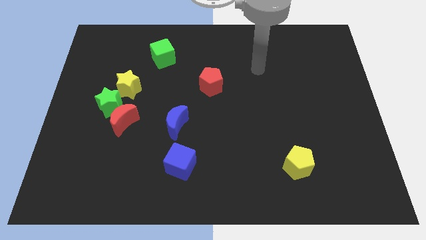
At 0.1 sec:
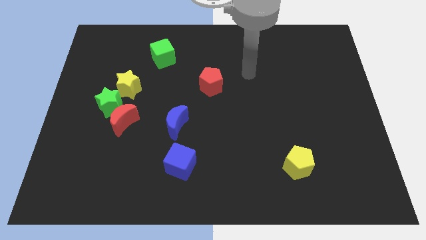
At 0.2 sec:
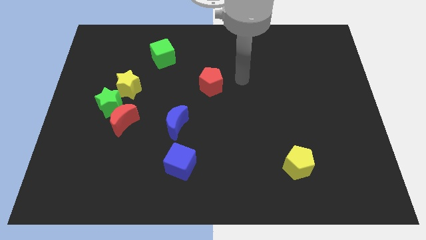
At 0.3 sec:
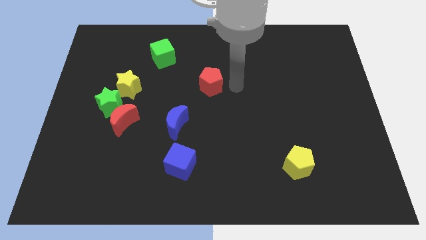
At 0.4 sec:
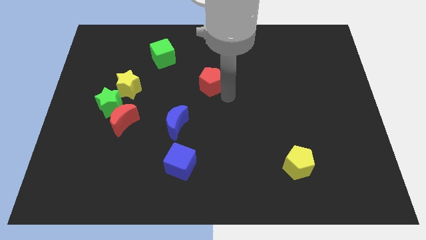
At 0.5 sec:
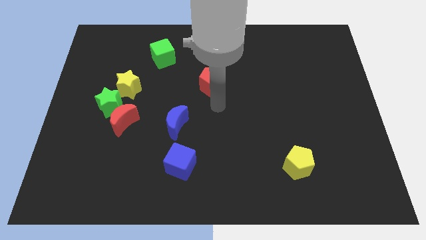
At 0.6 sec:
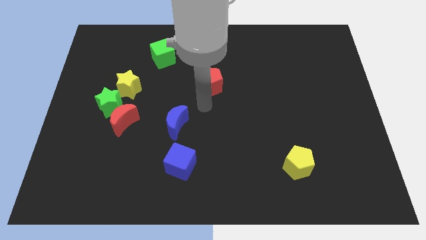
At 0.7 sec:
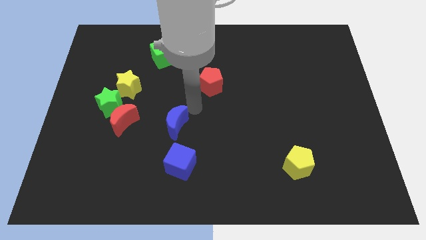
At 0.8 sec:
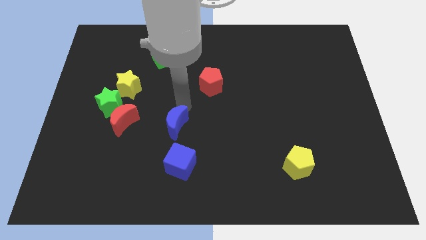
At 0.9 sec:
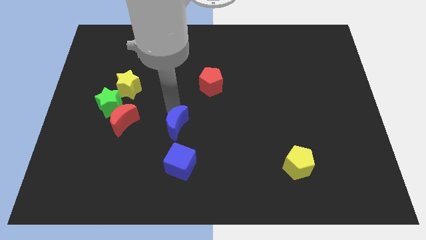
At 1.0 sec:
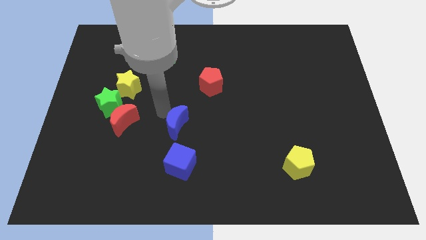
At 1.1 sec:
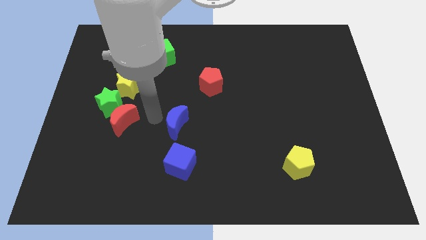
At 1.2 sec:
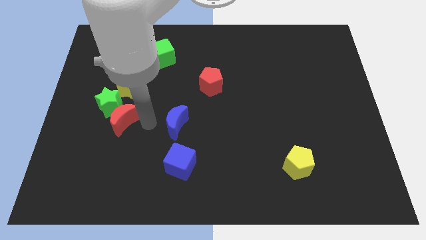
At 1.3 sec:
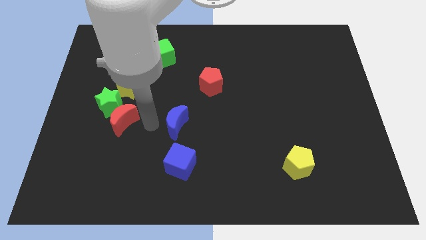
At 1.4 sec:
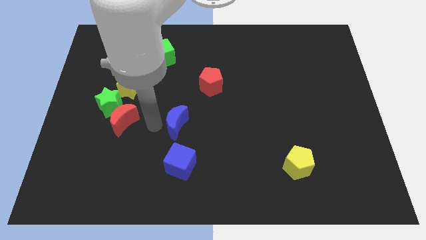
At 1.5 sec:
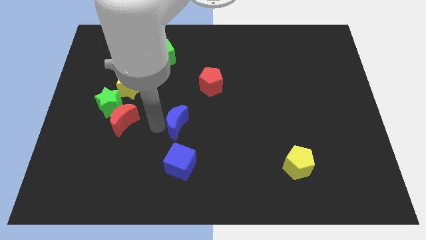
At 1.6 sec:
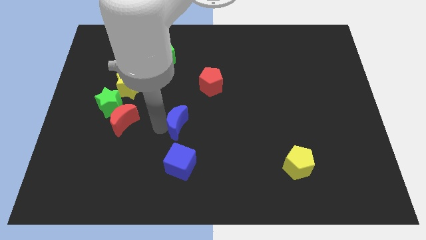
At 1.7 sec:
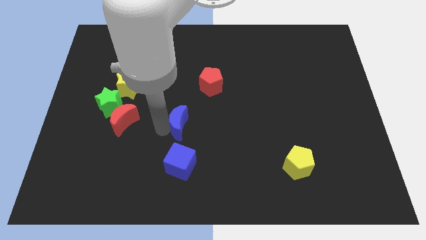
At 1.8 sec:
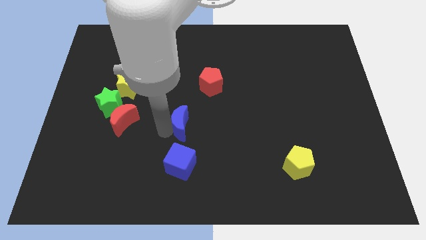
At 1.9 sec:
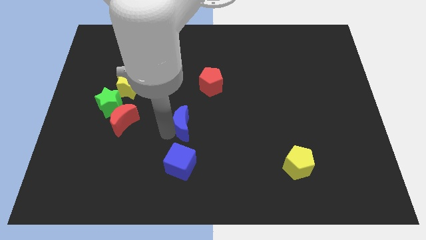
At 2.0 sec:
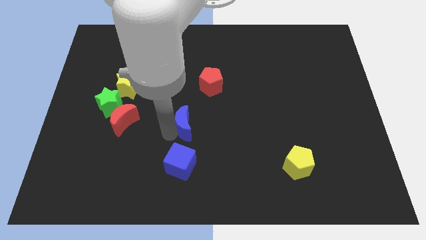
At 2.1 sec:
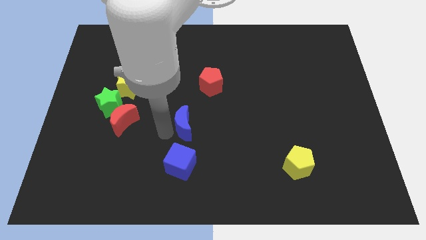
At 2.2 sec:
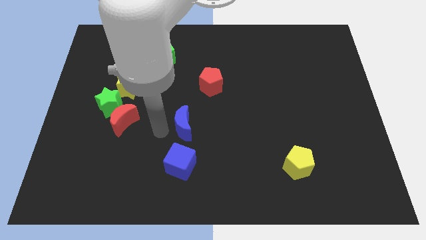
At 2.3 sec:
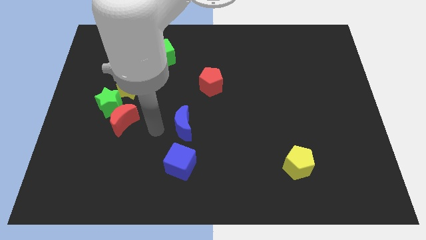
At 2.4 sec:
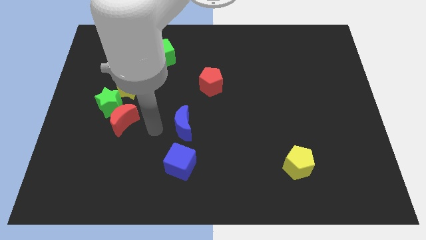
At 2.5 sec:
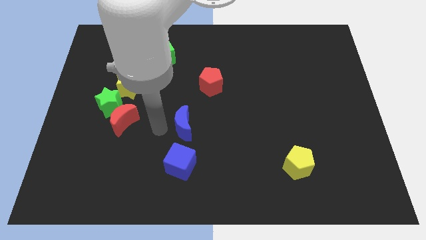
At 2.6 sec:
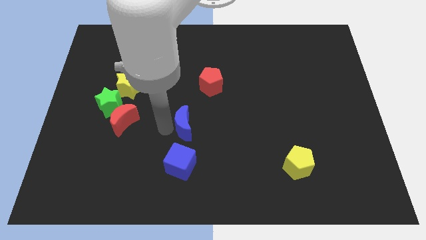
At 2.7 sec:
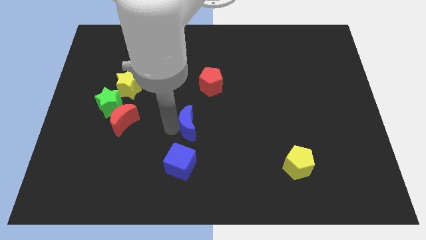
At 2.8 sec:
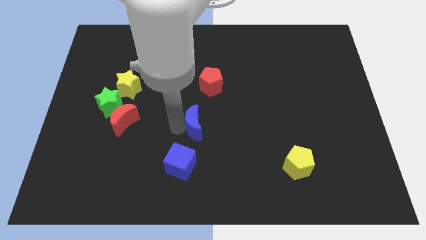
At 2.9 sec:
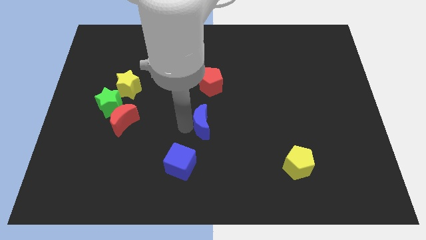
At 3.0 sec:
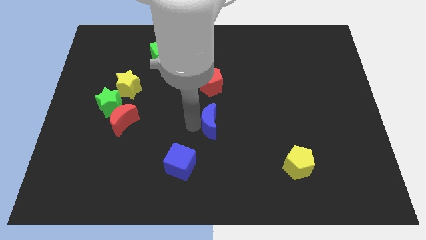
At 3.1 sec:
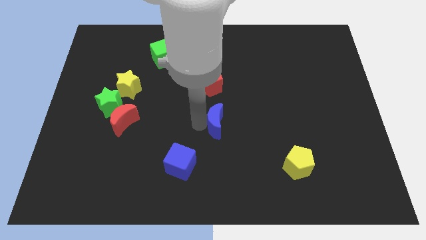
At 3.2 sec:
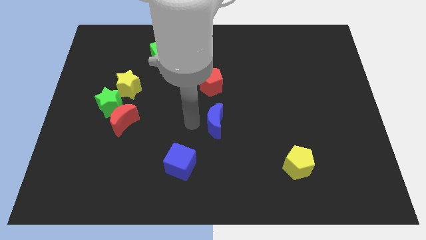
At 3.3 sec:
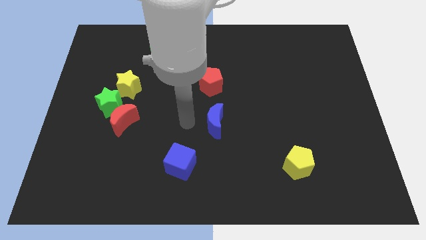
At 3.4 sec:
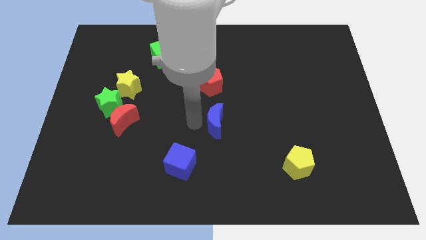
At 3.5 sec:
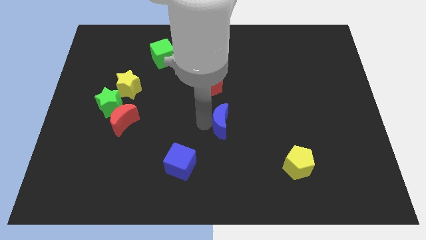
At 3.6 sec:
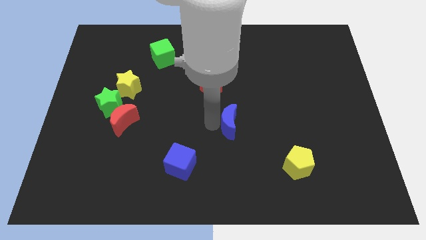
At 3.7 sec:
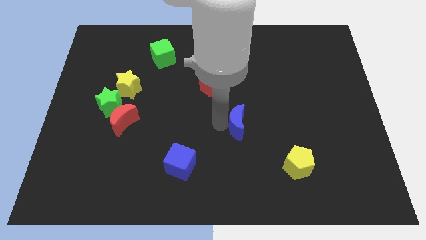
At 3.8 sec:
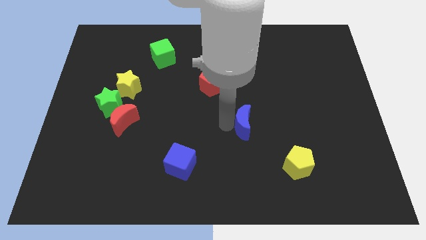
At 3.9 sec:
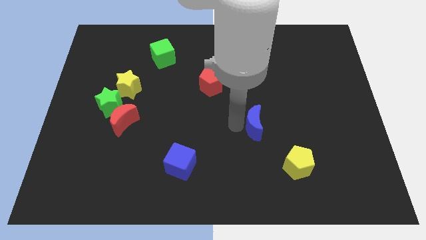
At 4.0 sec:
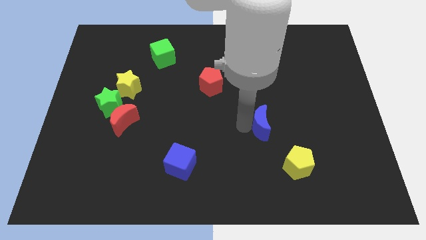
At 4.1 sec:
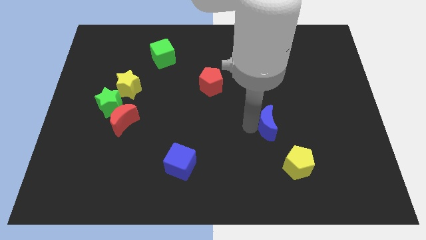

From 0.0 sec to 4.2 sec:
push the blue moon right

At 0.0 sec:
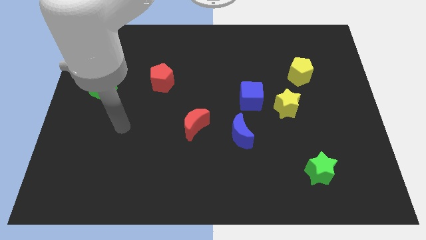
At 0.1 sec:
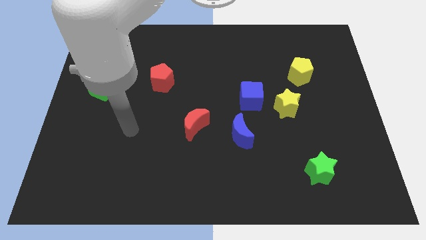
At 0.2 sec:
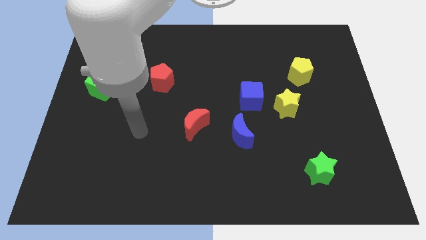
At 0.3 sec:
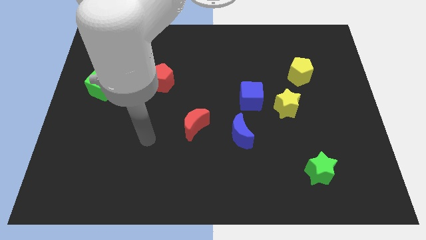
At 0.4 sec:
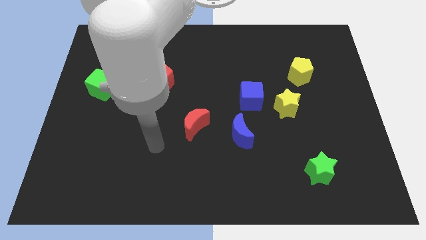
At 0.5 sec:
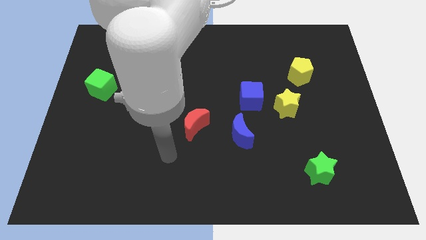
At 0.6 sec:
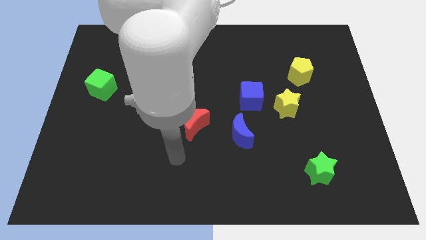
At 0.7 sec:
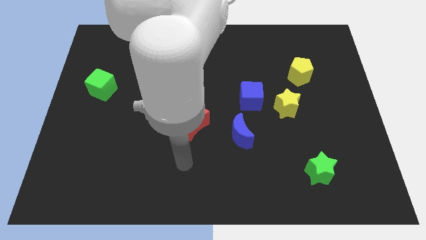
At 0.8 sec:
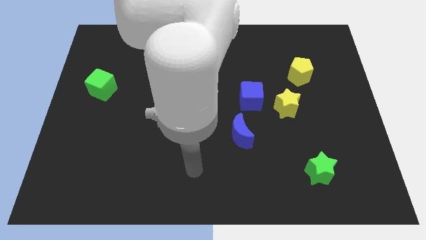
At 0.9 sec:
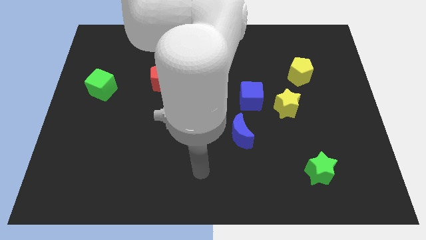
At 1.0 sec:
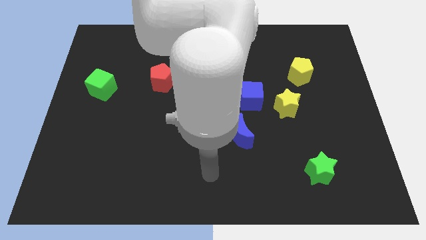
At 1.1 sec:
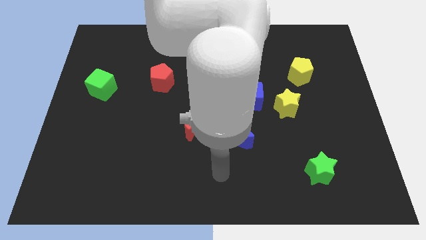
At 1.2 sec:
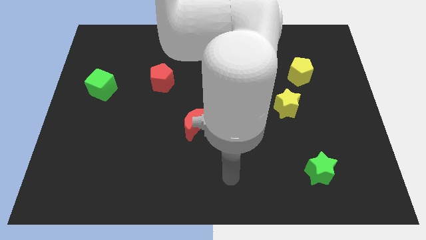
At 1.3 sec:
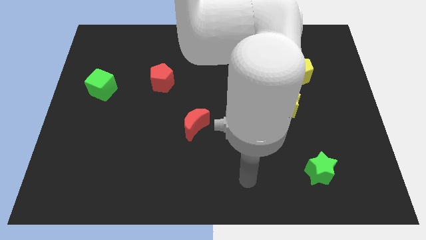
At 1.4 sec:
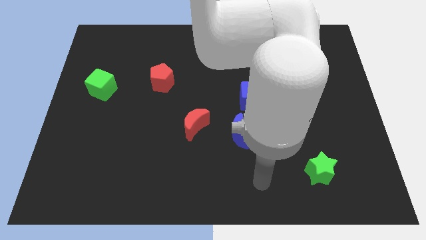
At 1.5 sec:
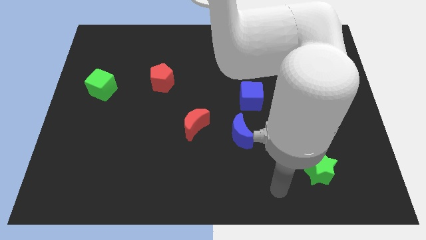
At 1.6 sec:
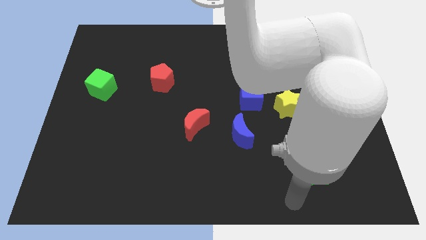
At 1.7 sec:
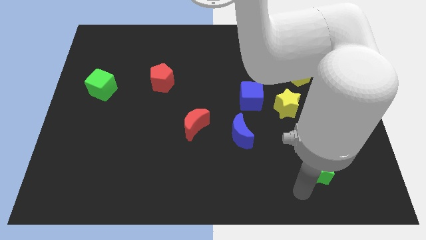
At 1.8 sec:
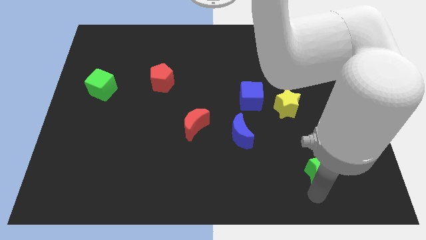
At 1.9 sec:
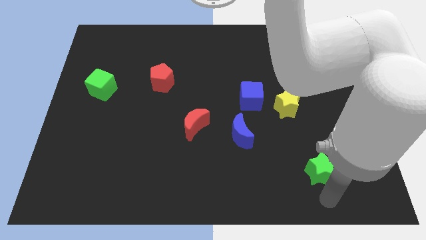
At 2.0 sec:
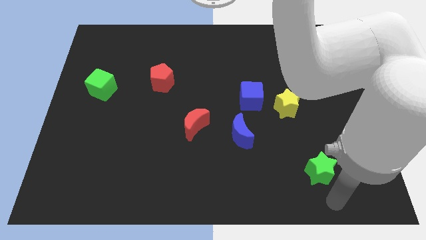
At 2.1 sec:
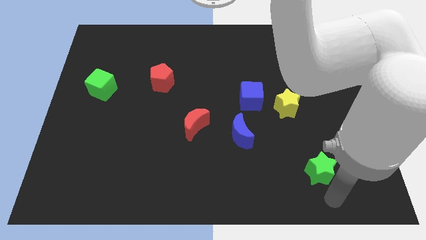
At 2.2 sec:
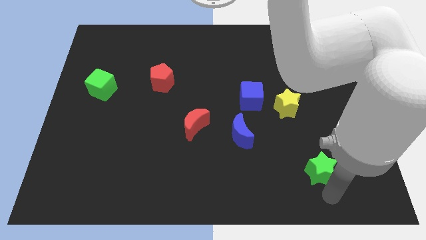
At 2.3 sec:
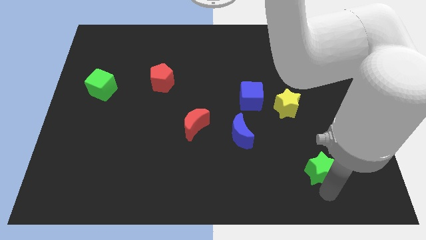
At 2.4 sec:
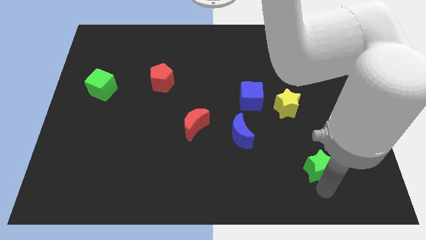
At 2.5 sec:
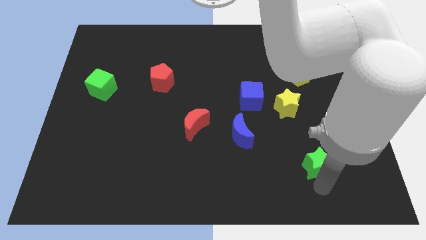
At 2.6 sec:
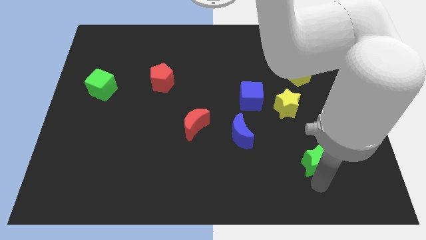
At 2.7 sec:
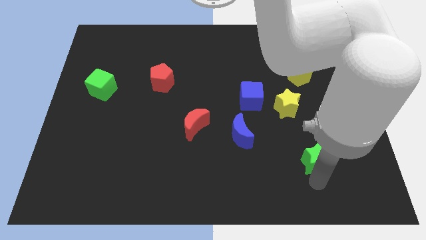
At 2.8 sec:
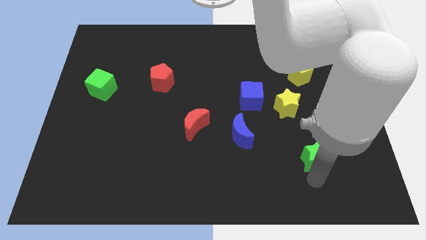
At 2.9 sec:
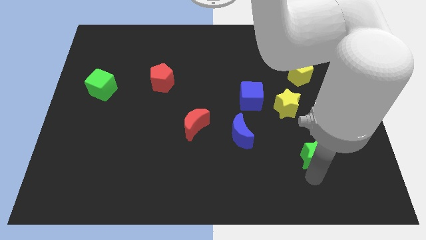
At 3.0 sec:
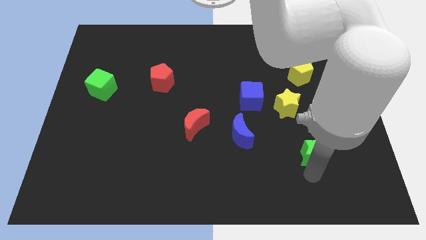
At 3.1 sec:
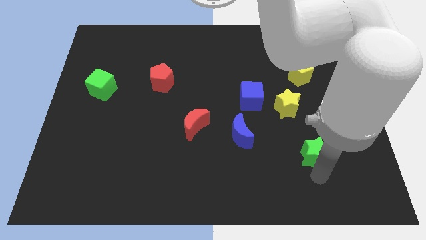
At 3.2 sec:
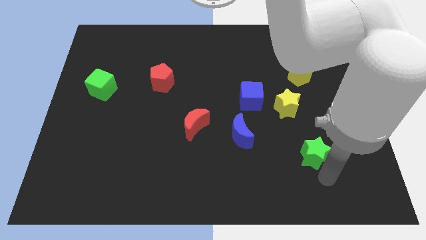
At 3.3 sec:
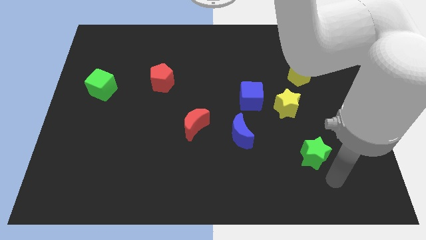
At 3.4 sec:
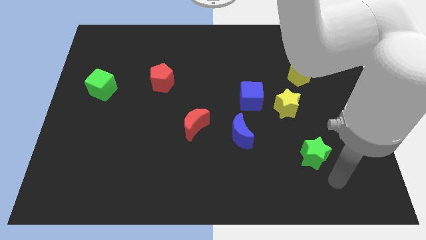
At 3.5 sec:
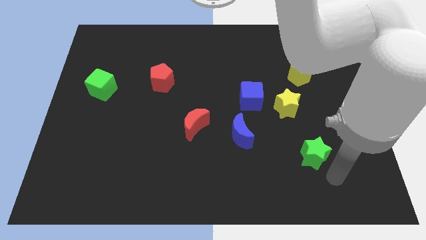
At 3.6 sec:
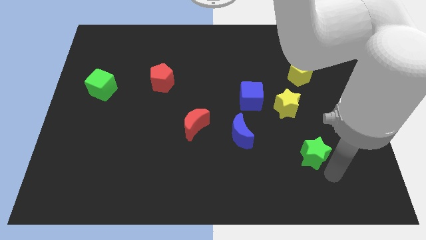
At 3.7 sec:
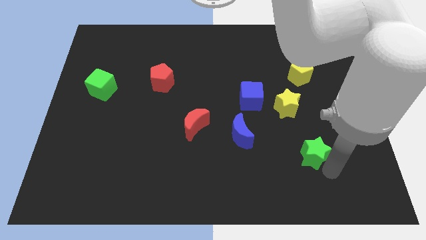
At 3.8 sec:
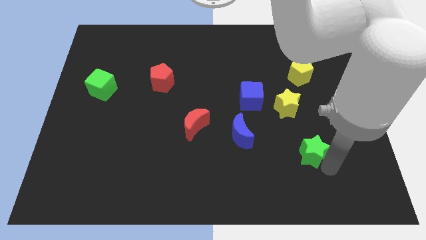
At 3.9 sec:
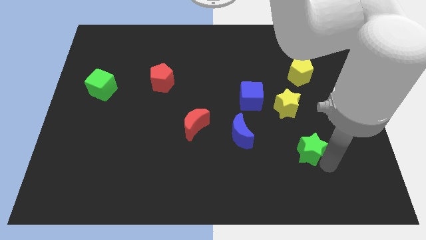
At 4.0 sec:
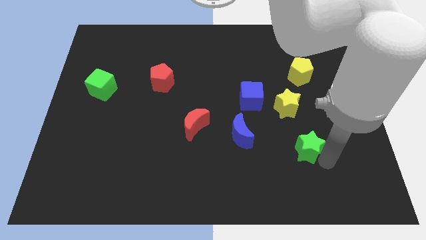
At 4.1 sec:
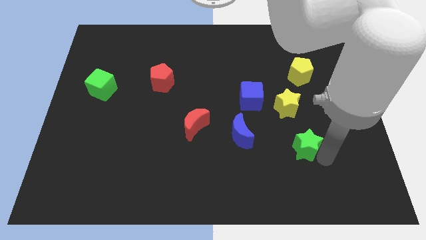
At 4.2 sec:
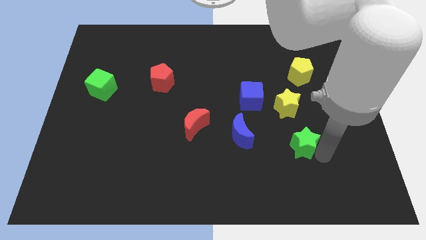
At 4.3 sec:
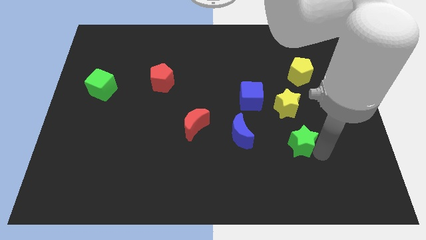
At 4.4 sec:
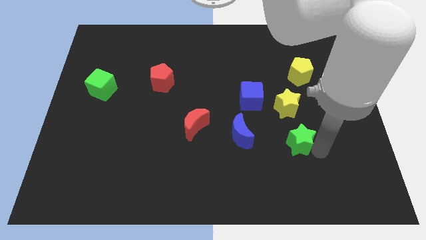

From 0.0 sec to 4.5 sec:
move the green star upwards and then to the left a little
